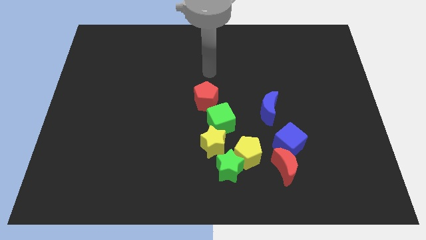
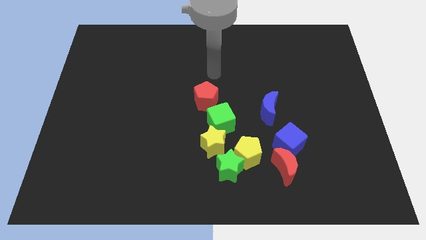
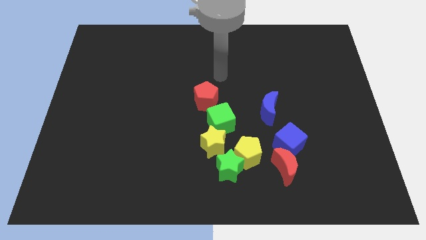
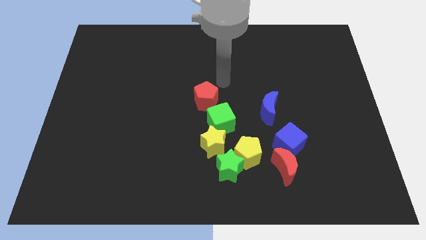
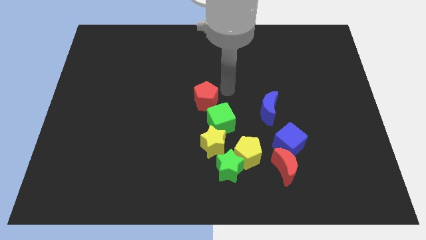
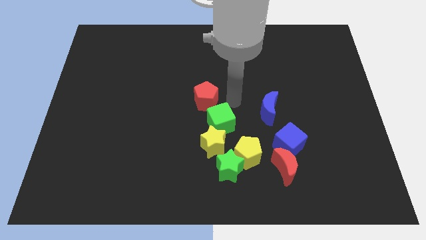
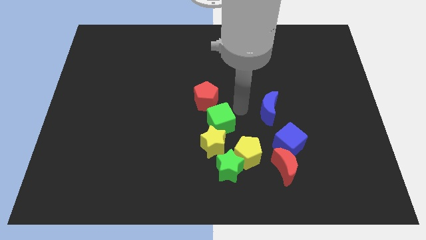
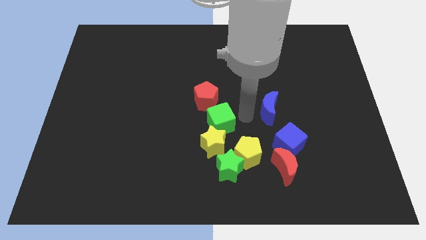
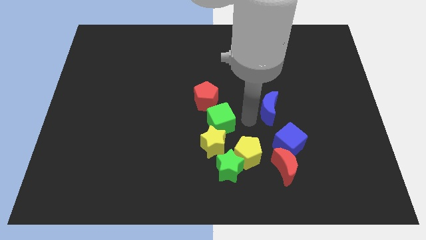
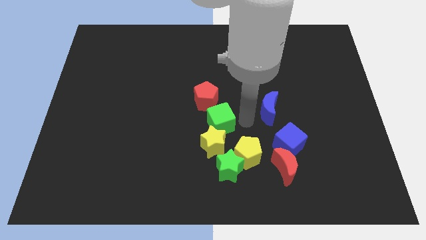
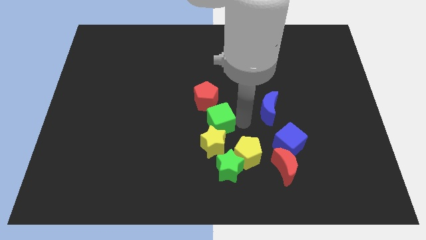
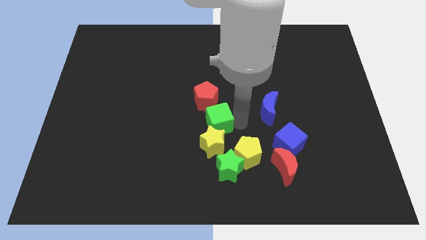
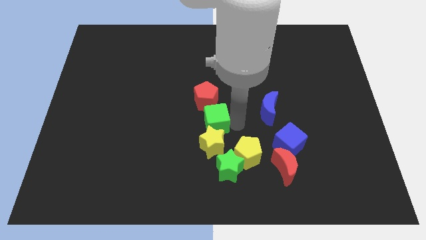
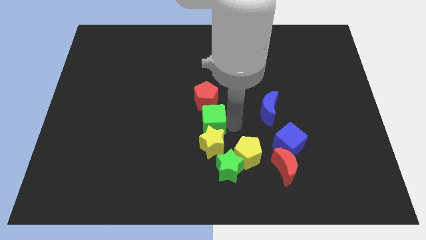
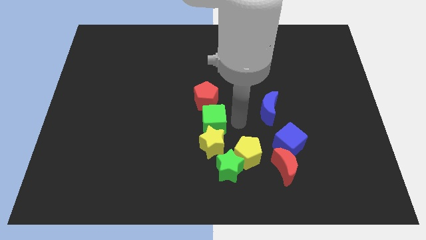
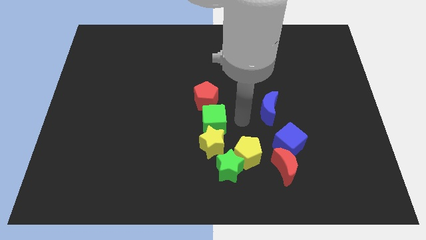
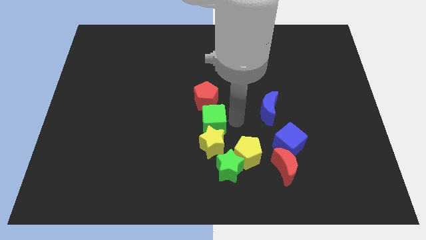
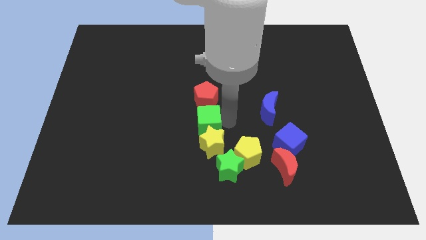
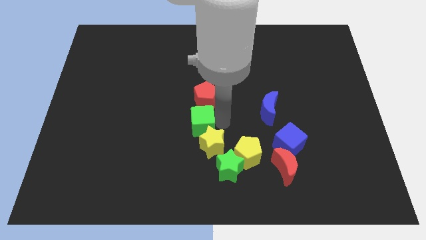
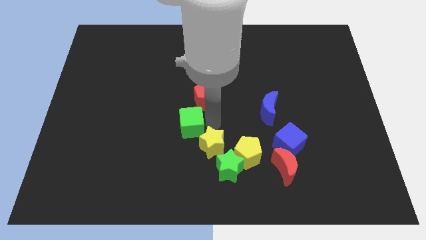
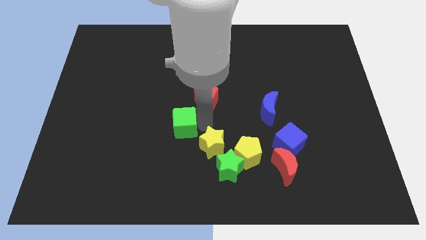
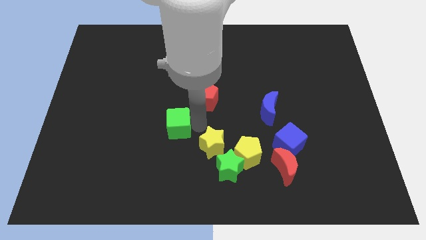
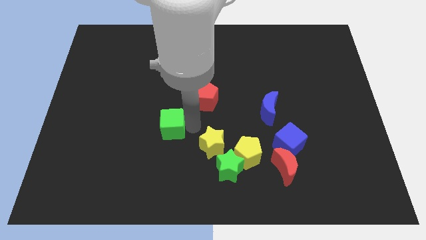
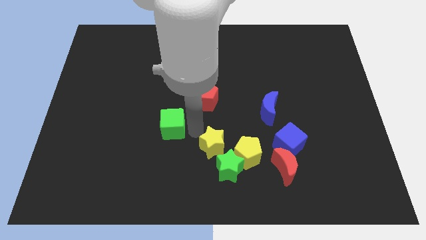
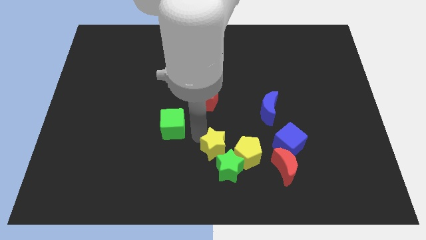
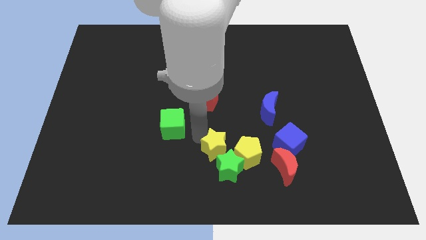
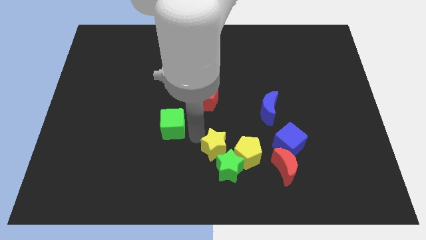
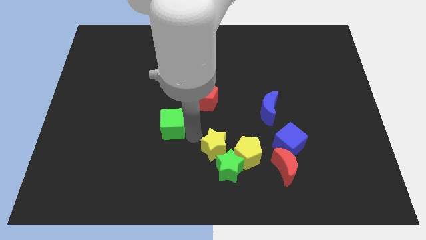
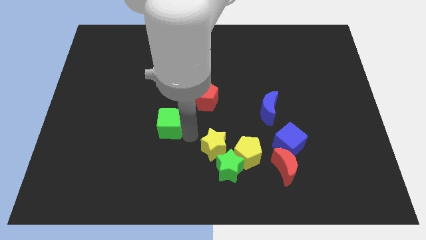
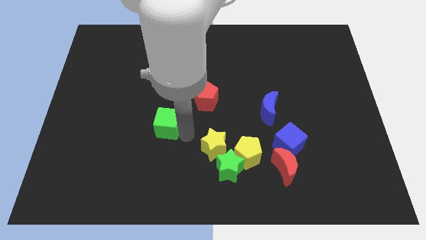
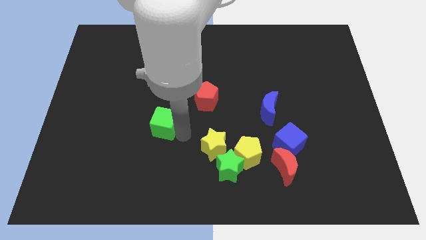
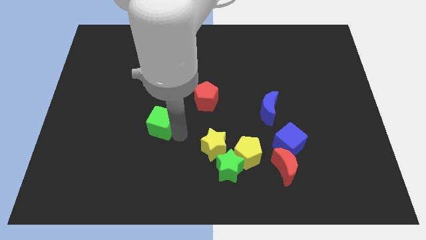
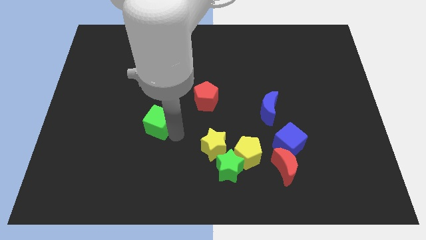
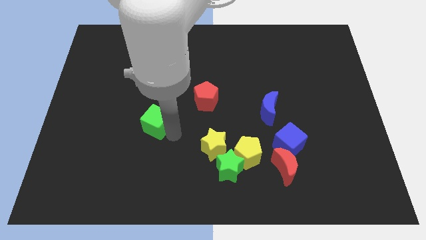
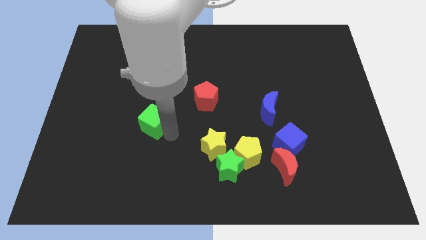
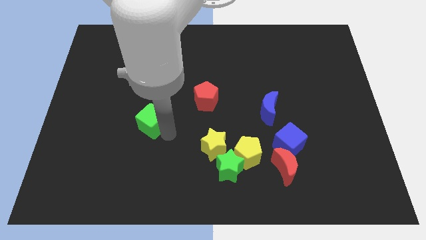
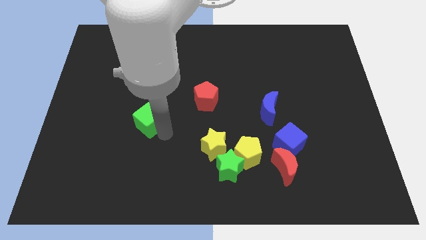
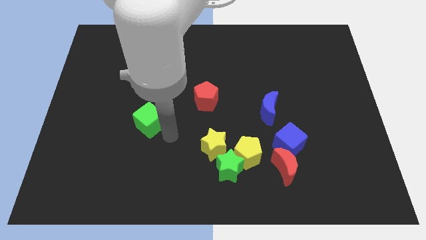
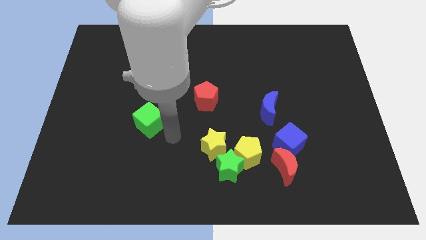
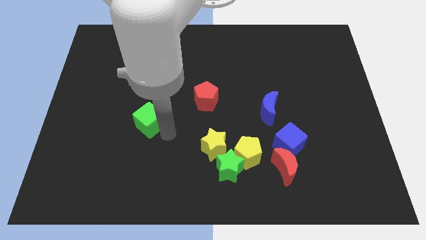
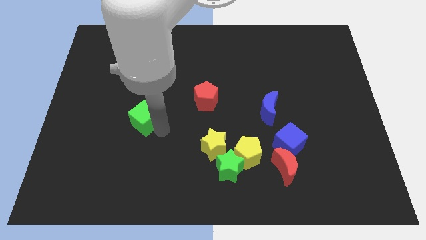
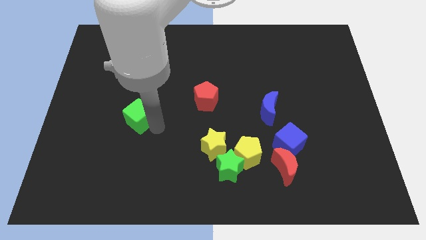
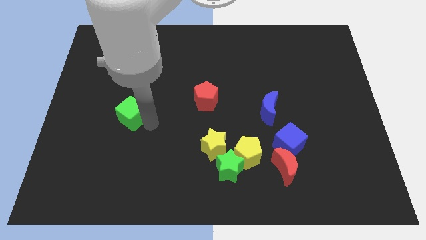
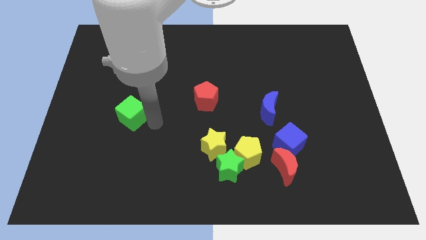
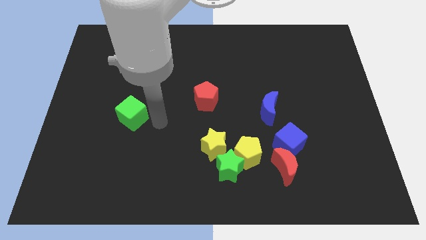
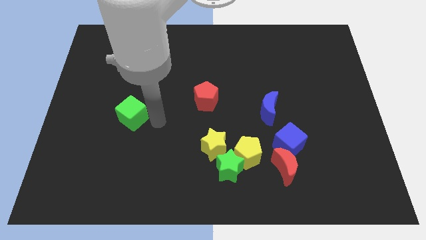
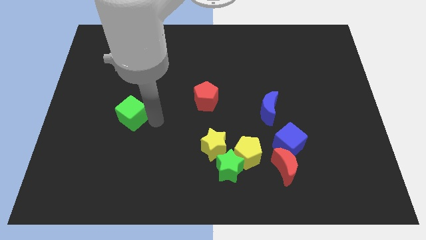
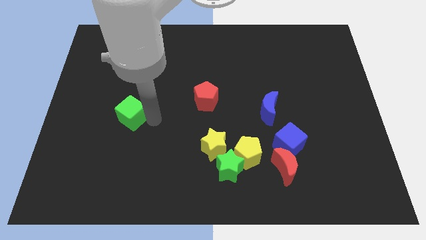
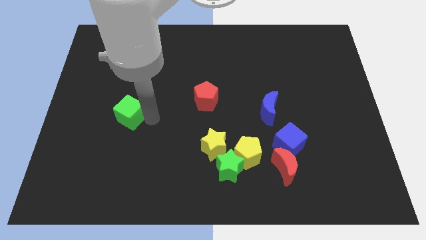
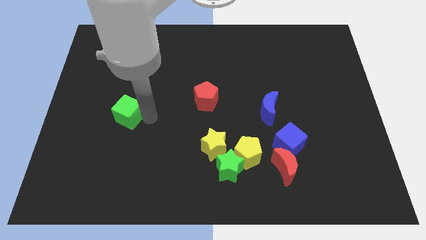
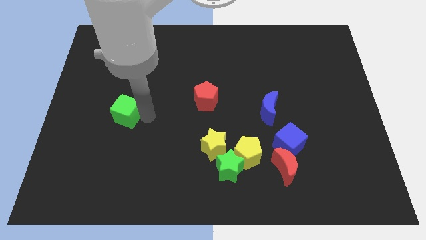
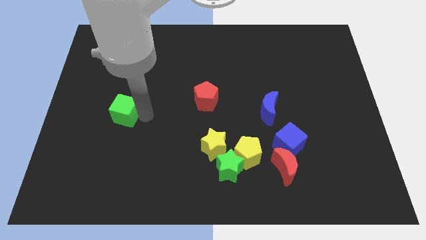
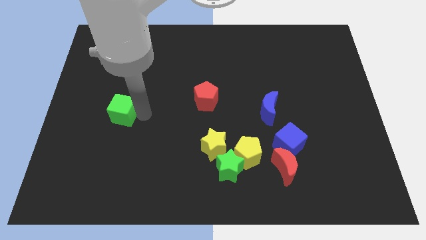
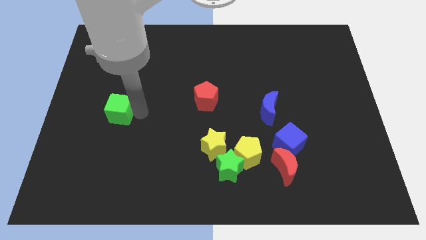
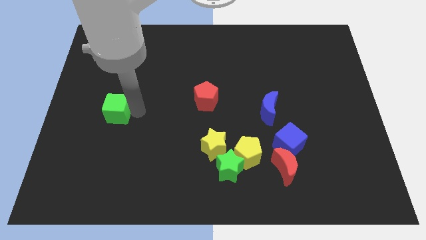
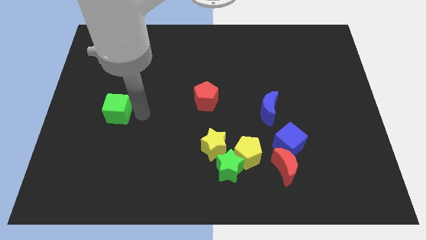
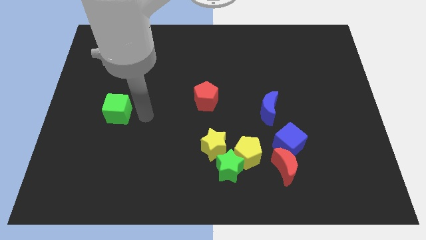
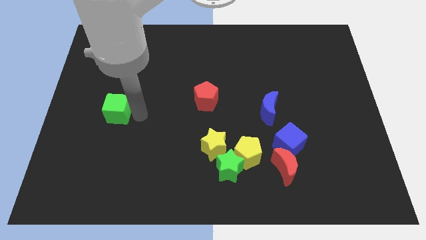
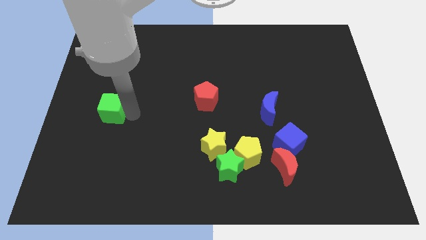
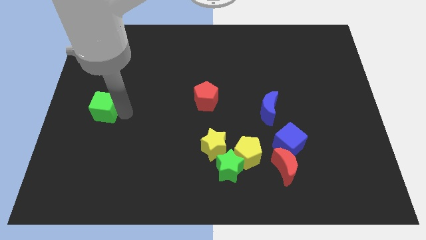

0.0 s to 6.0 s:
put the green cube to the center left

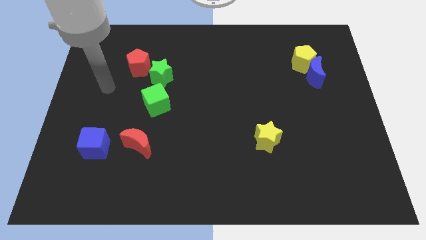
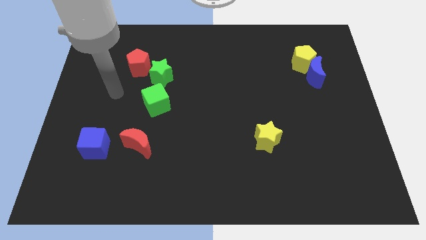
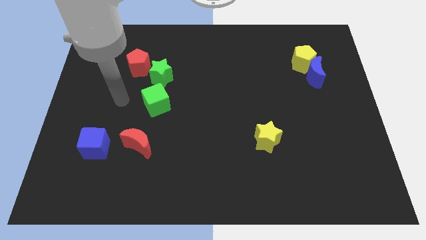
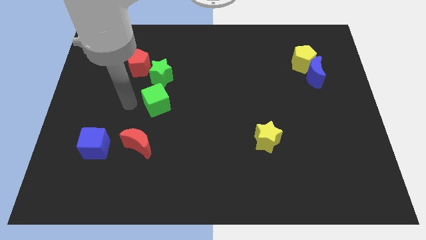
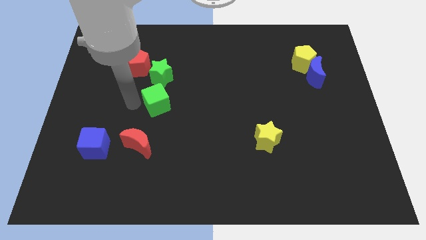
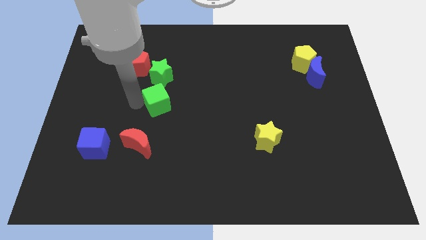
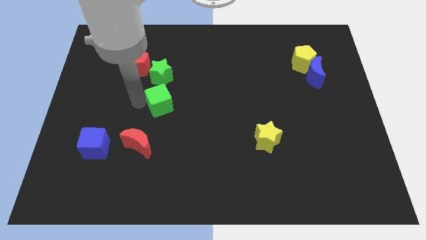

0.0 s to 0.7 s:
push the green cube to the center of the board

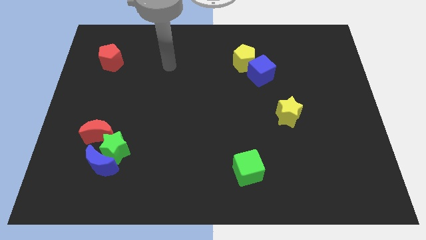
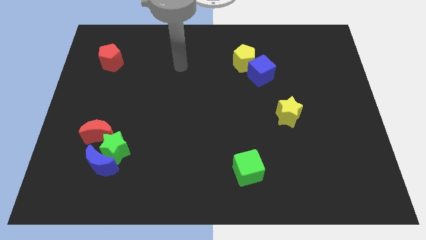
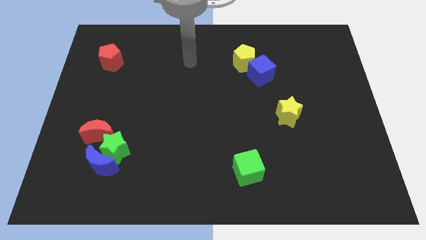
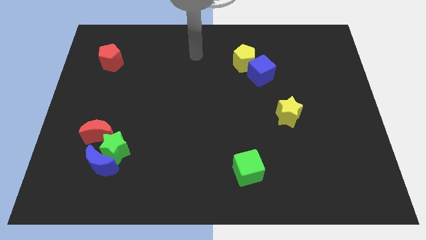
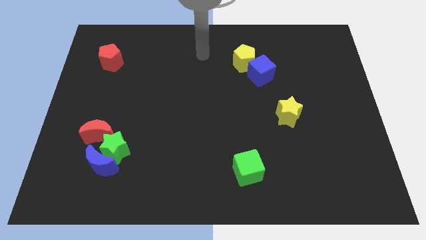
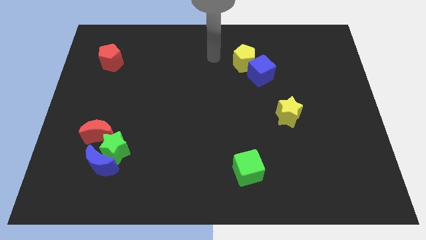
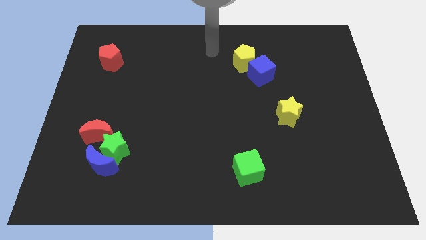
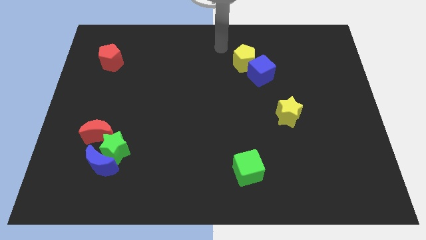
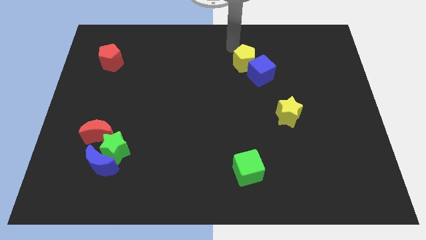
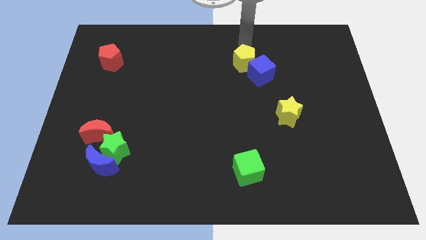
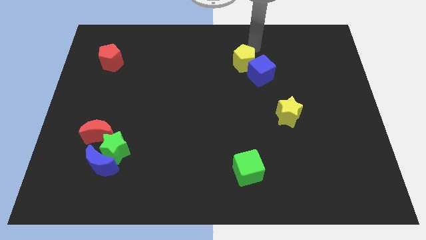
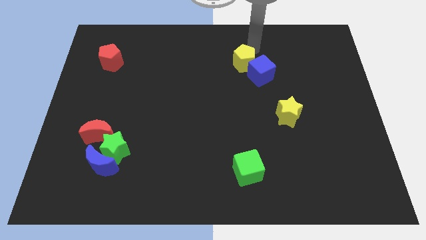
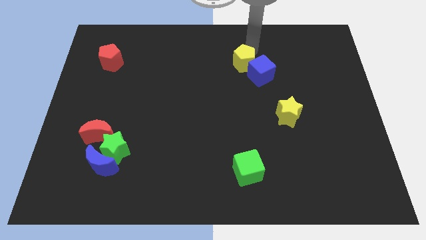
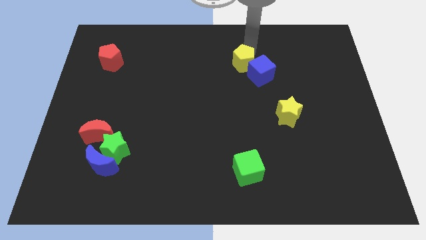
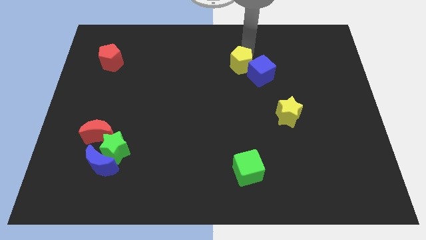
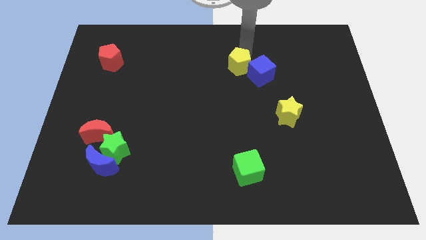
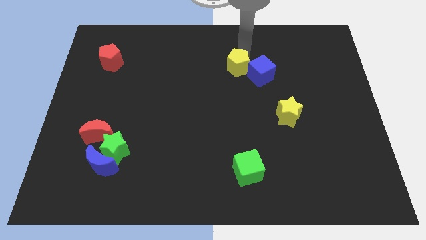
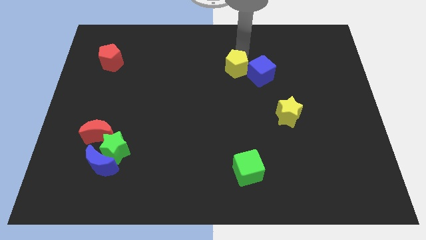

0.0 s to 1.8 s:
put the yellow pentagon to the center of the board
